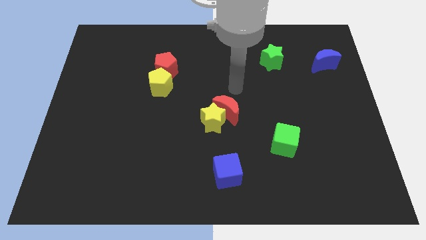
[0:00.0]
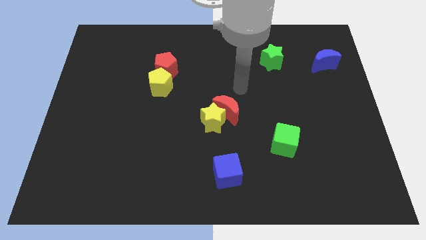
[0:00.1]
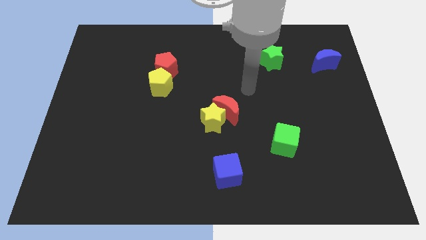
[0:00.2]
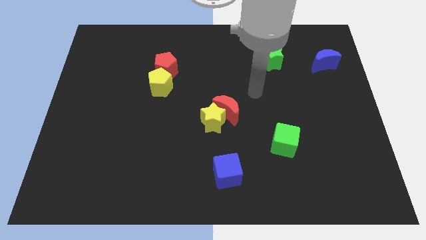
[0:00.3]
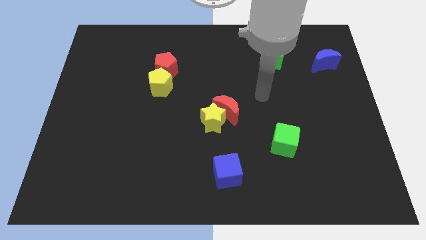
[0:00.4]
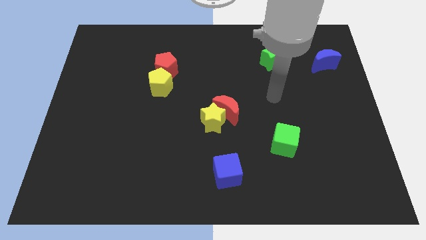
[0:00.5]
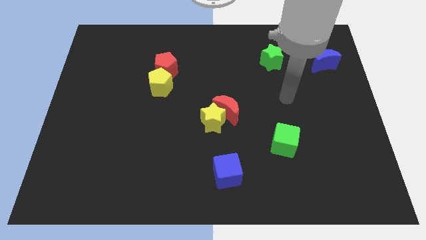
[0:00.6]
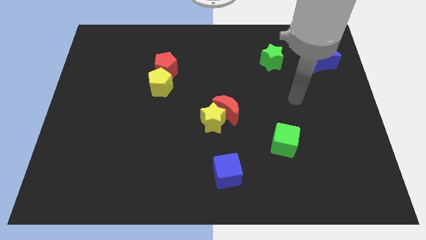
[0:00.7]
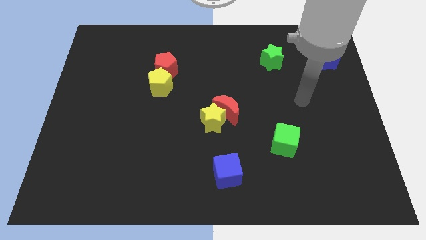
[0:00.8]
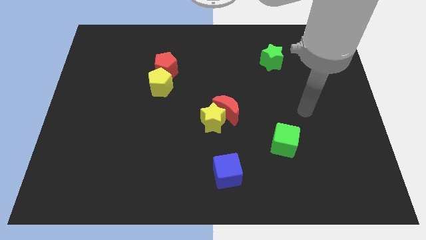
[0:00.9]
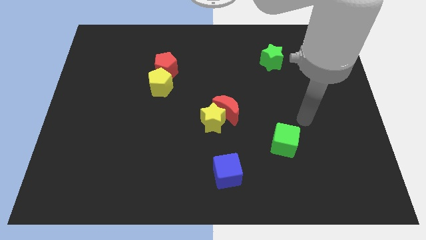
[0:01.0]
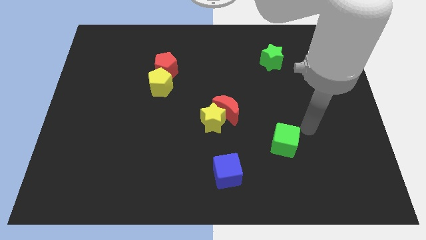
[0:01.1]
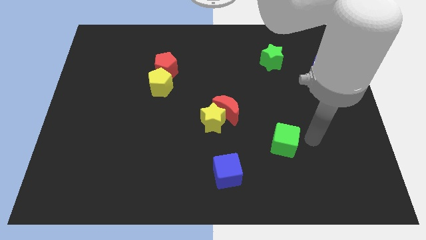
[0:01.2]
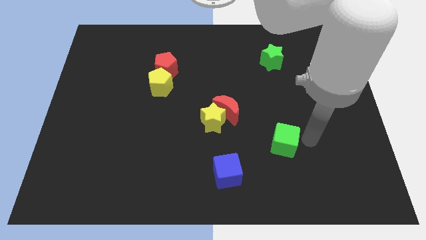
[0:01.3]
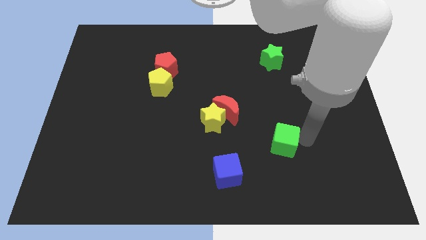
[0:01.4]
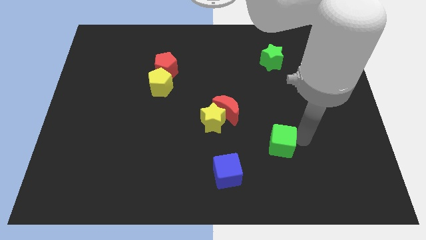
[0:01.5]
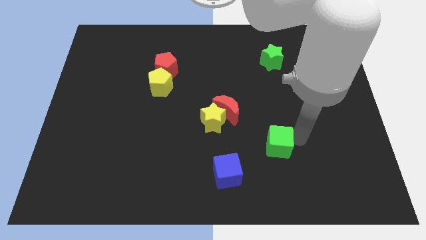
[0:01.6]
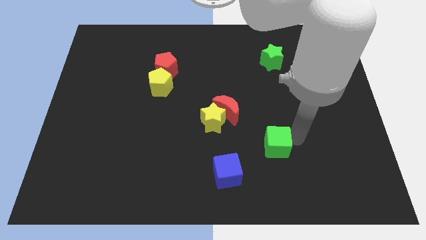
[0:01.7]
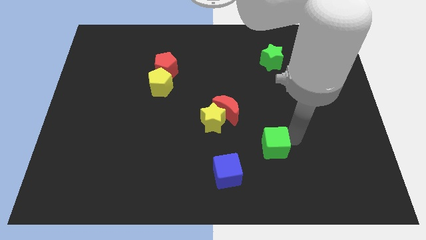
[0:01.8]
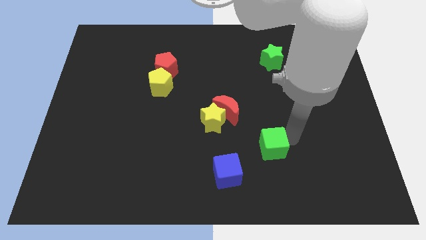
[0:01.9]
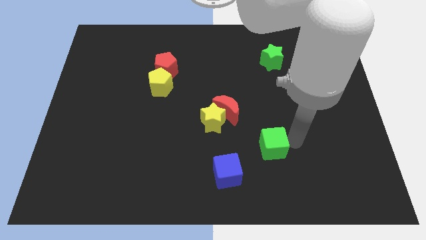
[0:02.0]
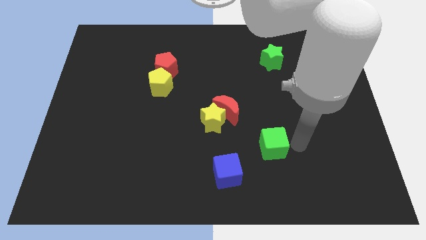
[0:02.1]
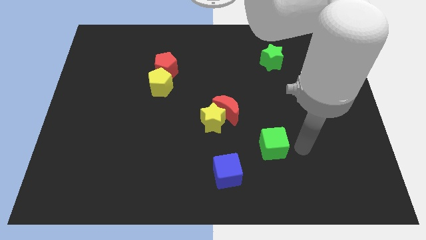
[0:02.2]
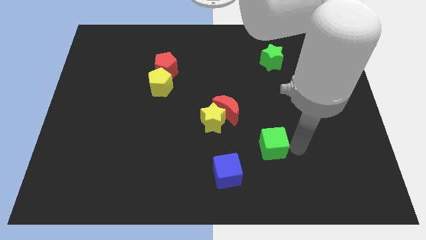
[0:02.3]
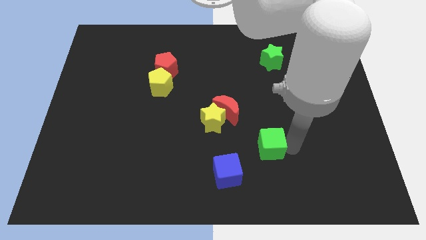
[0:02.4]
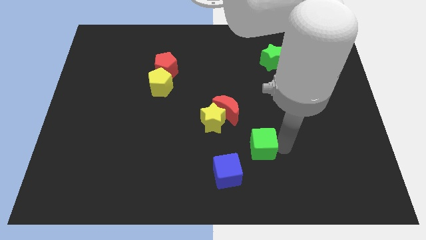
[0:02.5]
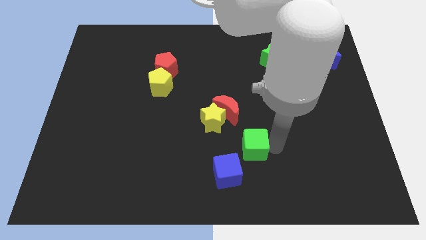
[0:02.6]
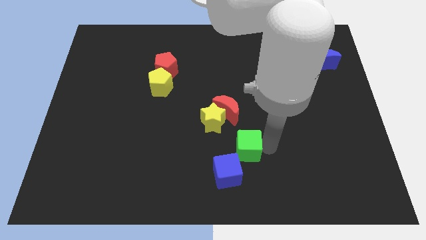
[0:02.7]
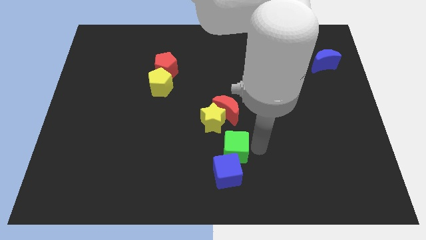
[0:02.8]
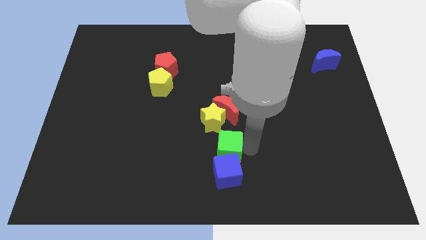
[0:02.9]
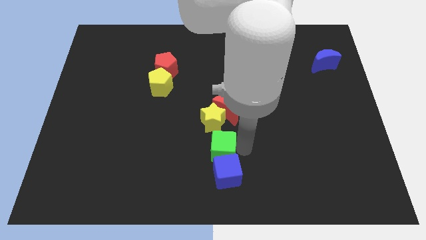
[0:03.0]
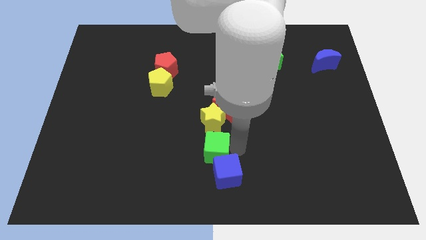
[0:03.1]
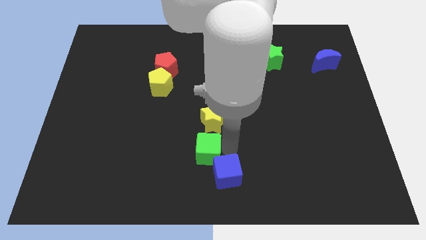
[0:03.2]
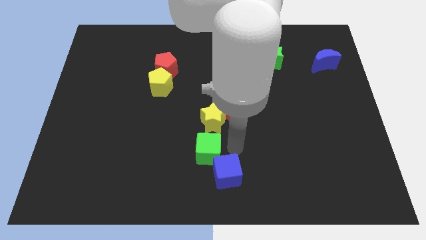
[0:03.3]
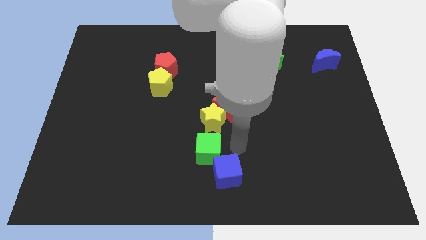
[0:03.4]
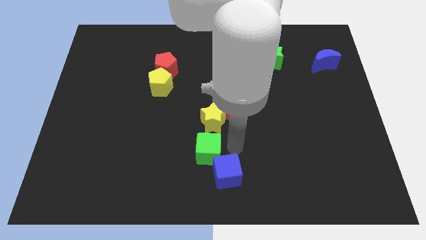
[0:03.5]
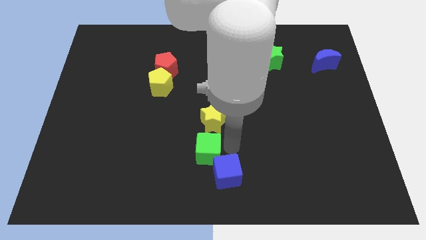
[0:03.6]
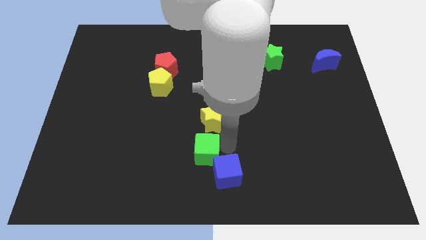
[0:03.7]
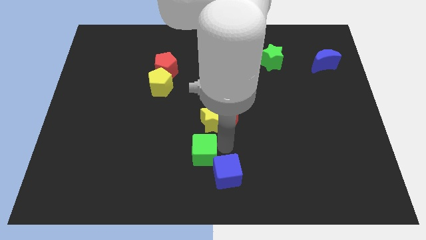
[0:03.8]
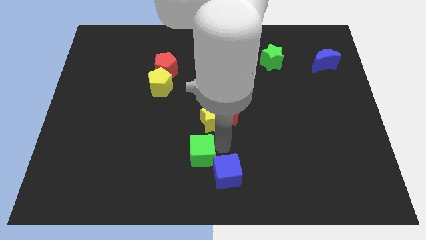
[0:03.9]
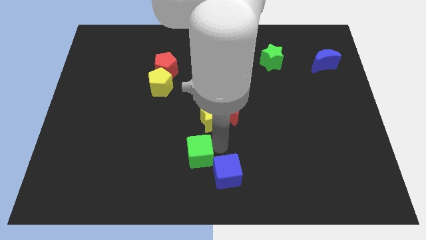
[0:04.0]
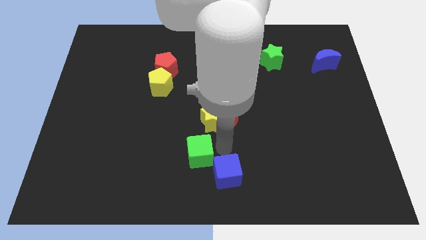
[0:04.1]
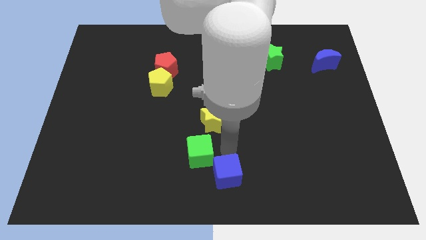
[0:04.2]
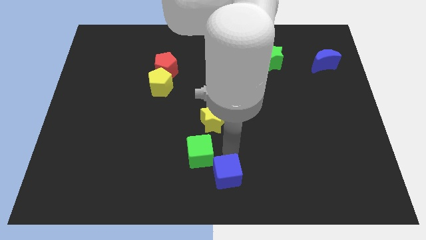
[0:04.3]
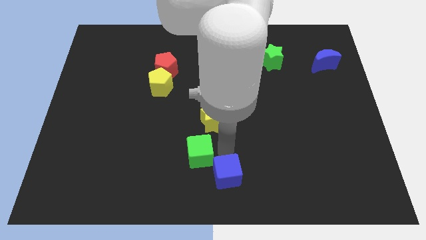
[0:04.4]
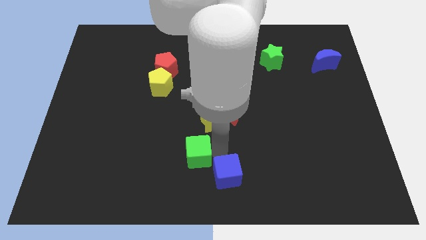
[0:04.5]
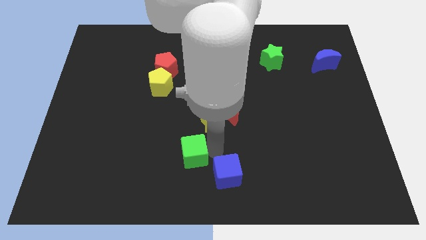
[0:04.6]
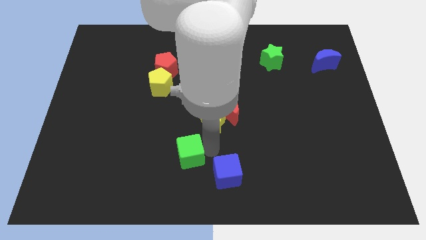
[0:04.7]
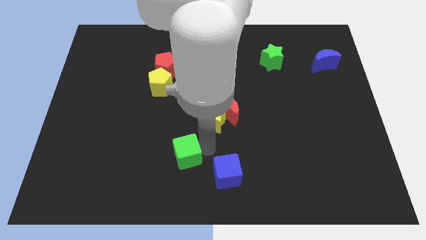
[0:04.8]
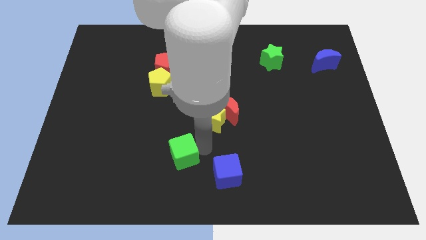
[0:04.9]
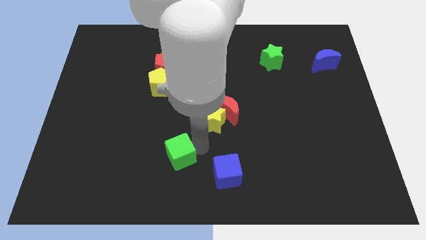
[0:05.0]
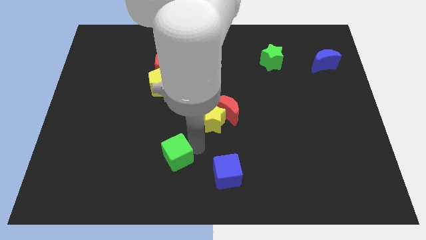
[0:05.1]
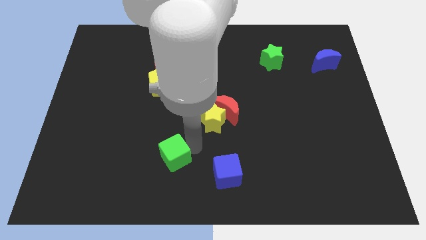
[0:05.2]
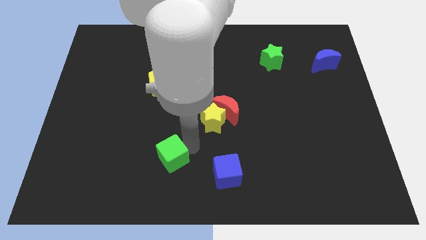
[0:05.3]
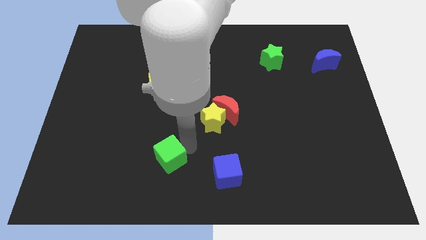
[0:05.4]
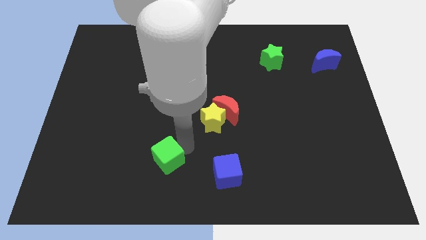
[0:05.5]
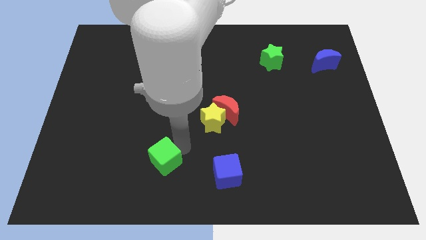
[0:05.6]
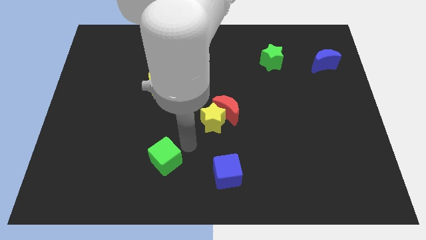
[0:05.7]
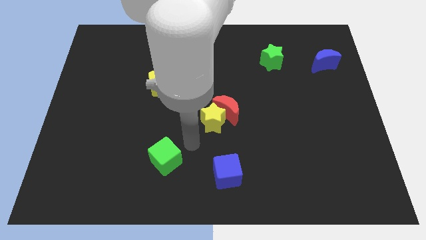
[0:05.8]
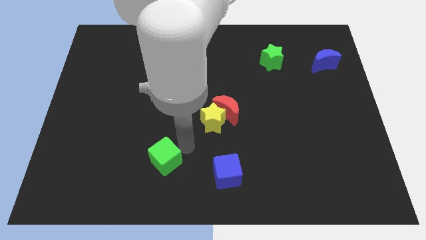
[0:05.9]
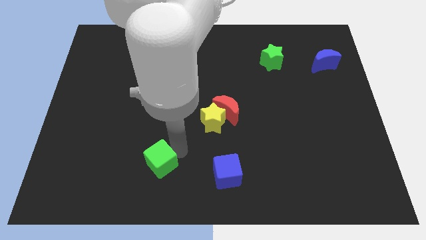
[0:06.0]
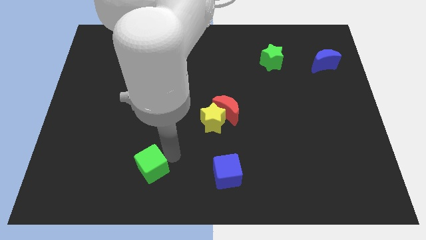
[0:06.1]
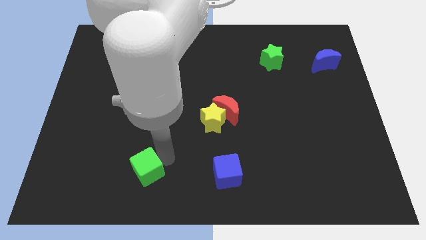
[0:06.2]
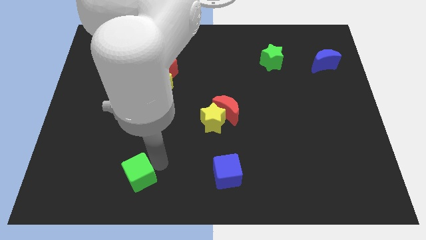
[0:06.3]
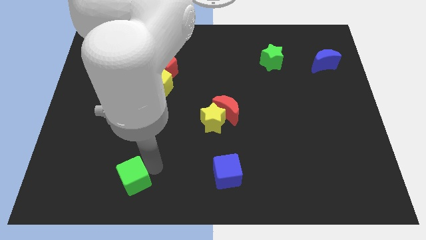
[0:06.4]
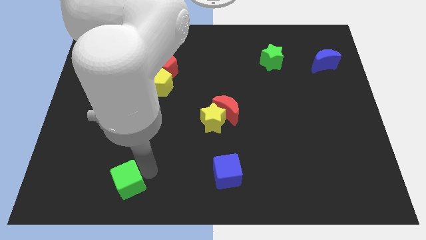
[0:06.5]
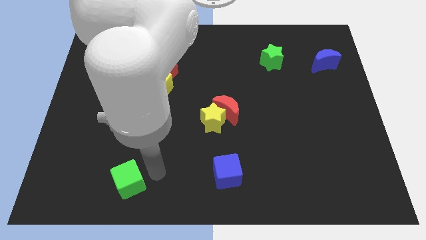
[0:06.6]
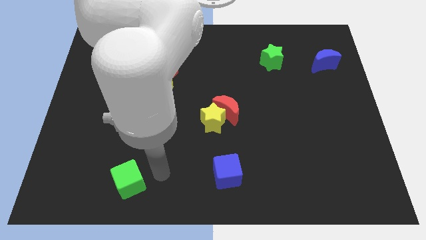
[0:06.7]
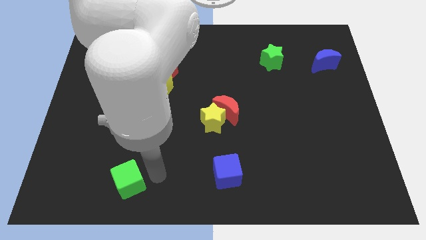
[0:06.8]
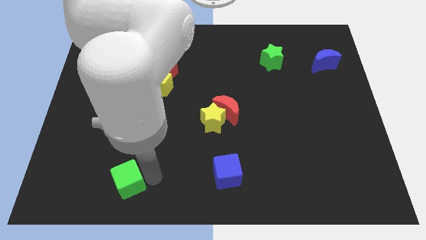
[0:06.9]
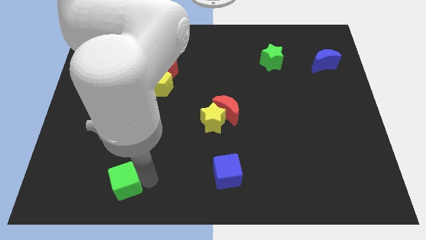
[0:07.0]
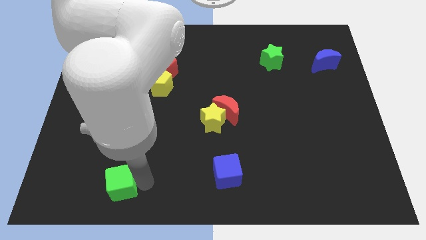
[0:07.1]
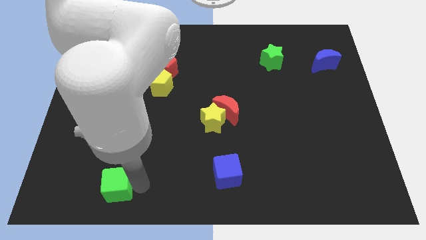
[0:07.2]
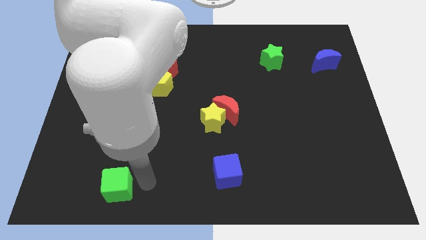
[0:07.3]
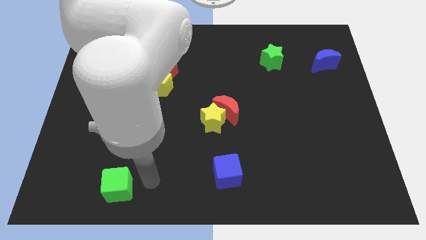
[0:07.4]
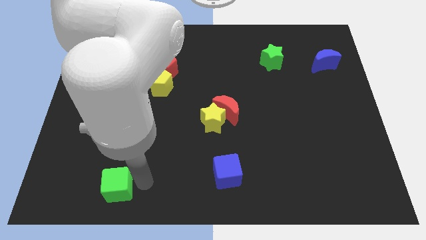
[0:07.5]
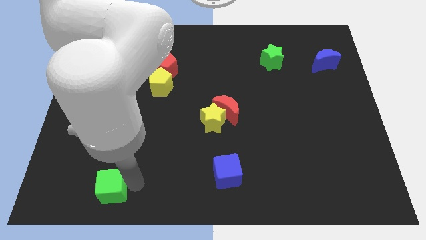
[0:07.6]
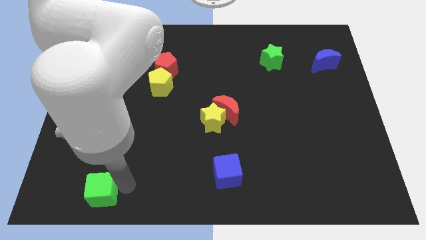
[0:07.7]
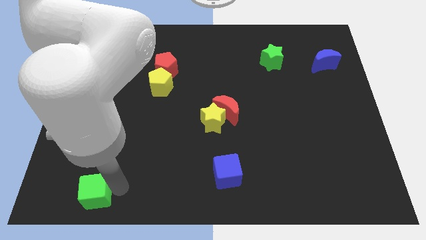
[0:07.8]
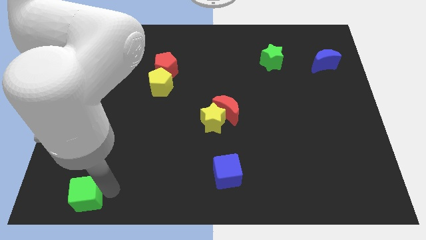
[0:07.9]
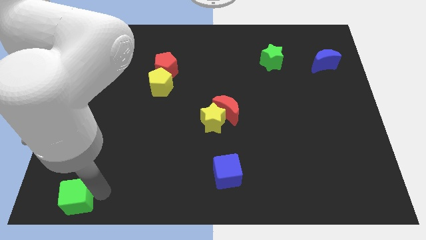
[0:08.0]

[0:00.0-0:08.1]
slide the green cube to the lower left corner
